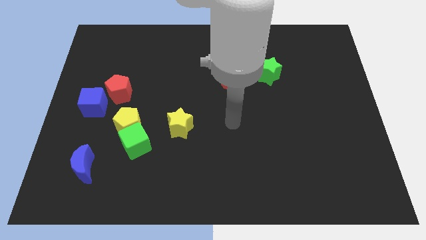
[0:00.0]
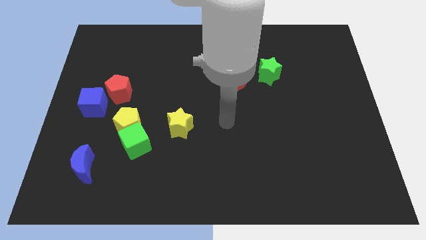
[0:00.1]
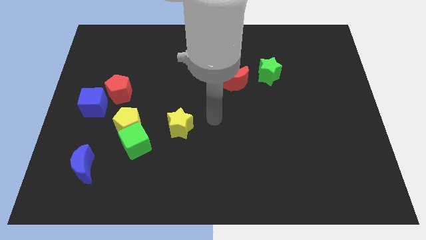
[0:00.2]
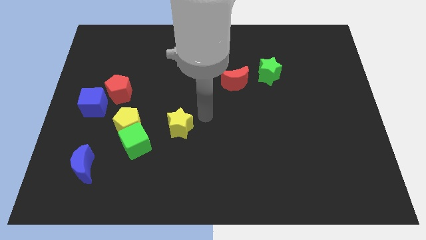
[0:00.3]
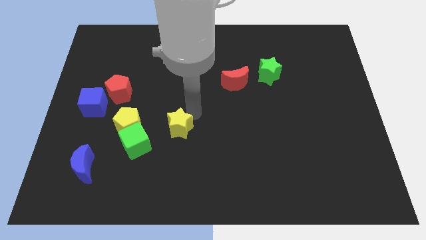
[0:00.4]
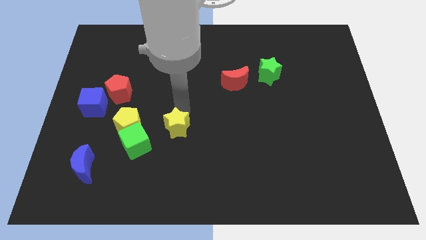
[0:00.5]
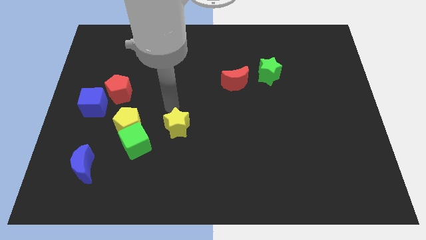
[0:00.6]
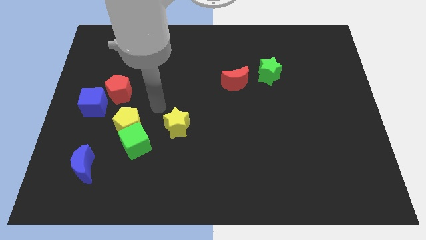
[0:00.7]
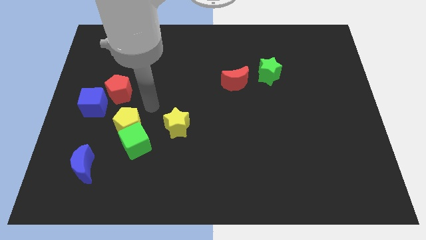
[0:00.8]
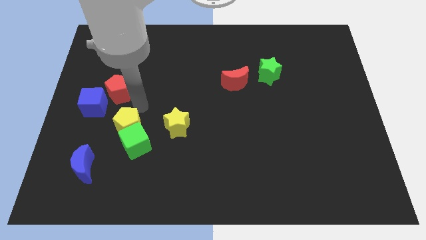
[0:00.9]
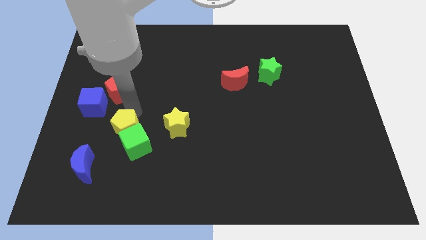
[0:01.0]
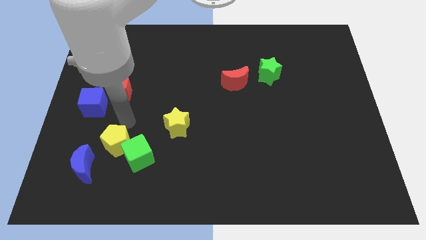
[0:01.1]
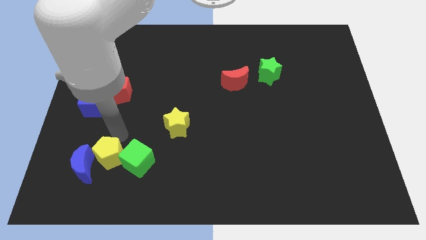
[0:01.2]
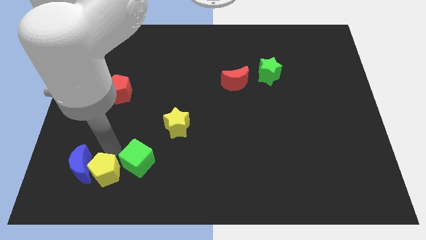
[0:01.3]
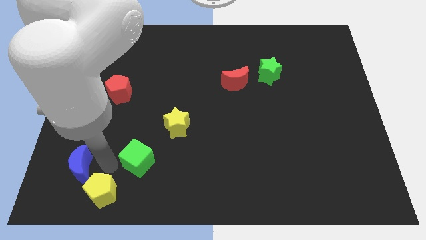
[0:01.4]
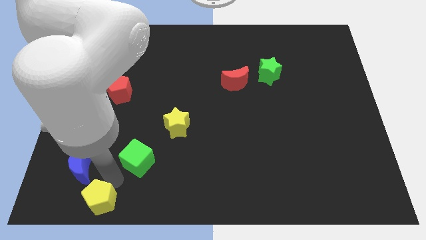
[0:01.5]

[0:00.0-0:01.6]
separate the green cube from the yellow pentagon

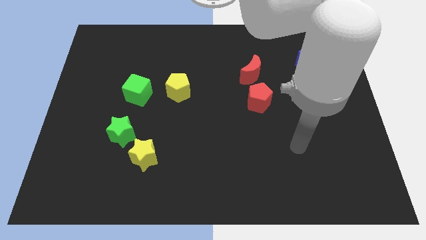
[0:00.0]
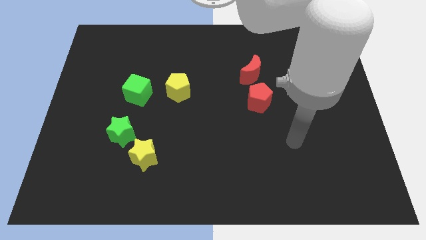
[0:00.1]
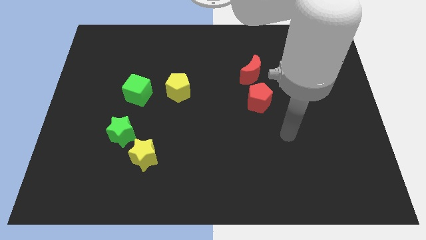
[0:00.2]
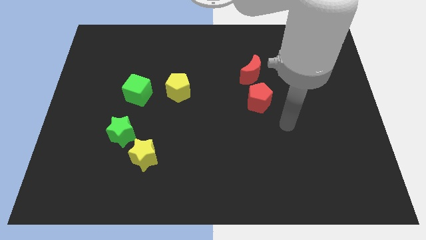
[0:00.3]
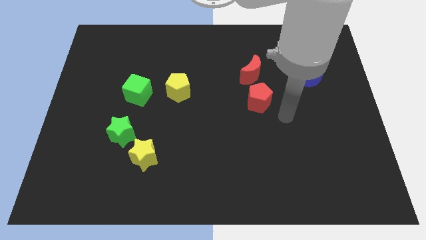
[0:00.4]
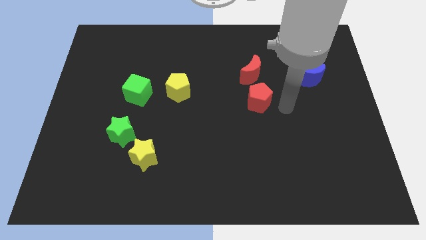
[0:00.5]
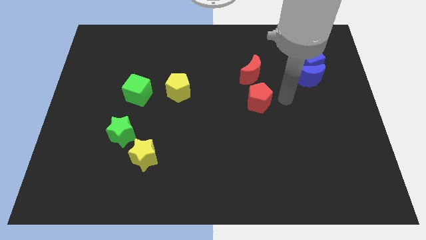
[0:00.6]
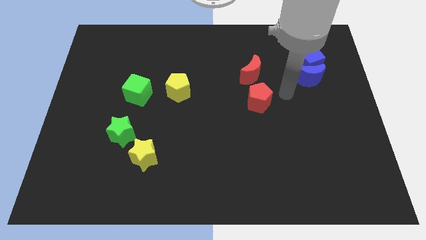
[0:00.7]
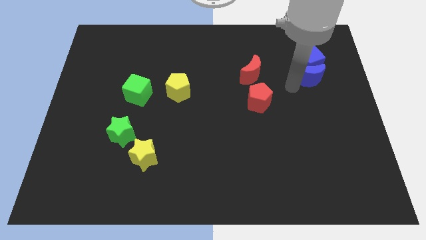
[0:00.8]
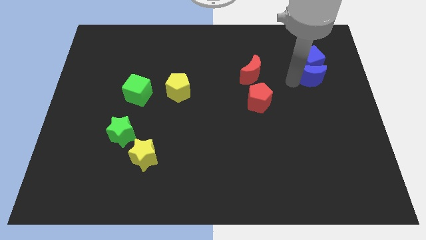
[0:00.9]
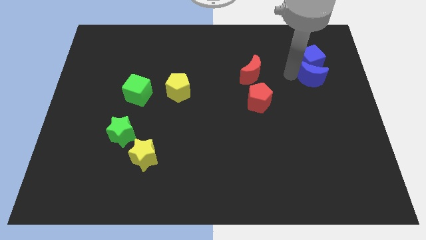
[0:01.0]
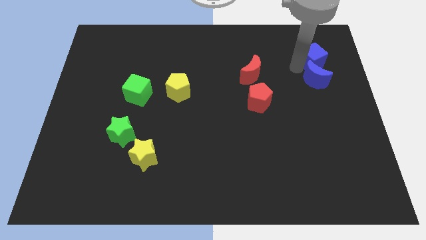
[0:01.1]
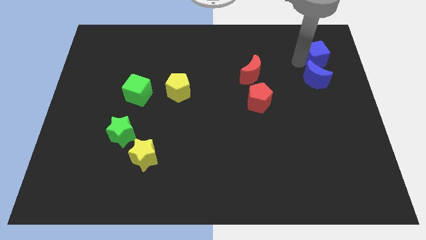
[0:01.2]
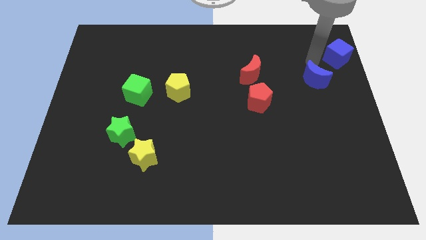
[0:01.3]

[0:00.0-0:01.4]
move the blue moon away from the blue cube

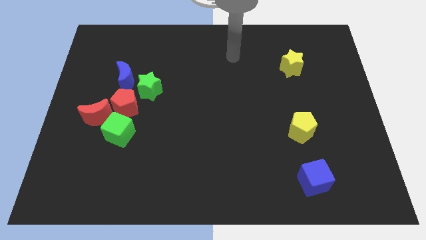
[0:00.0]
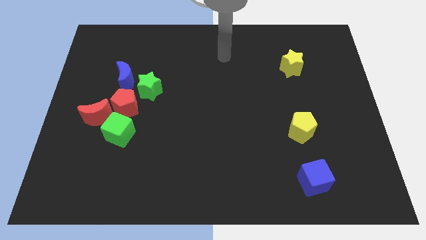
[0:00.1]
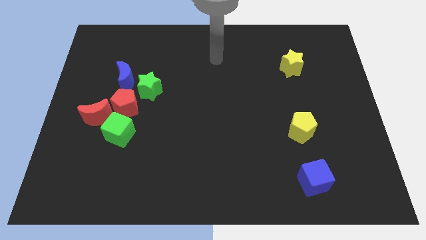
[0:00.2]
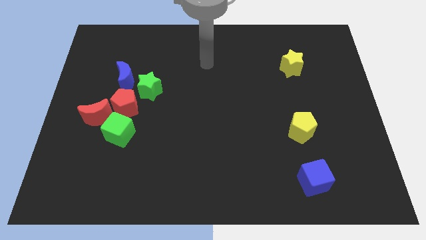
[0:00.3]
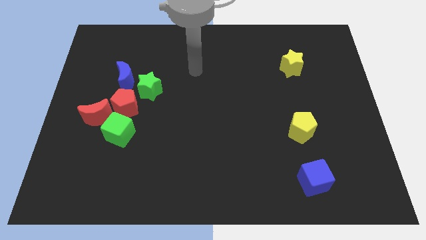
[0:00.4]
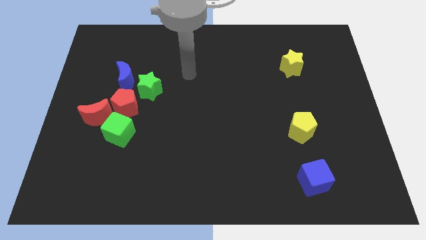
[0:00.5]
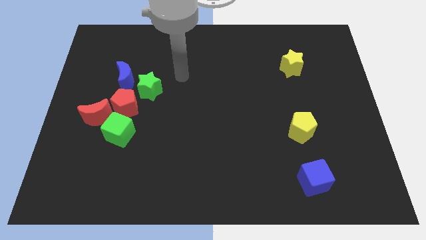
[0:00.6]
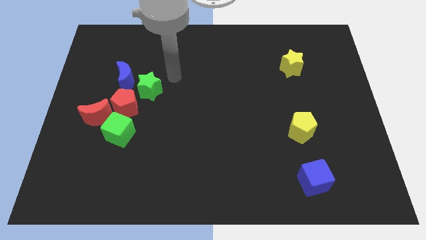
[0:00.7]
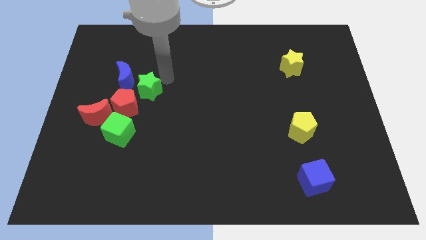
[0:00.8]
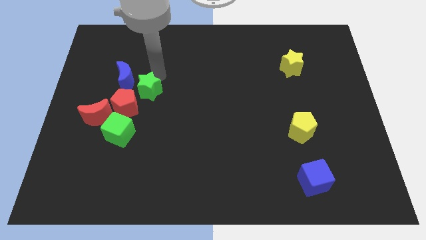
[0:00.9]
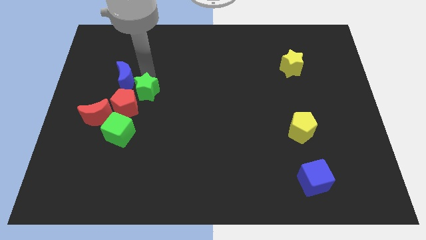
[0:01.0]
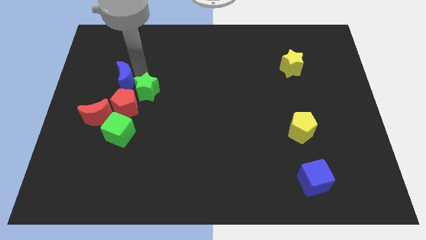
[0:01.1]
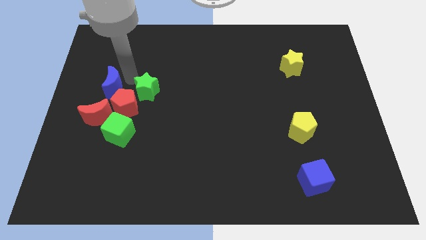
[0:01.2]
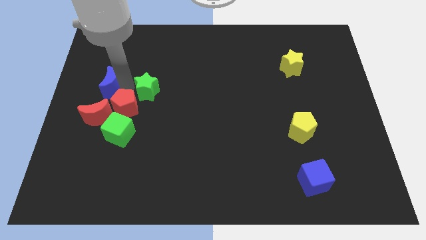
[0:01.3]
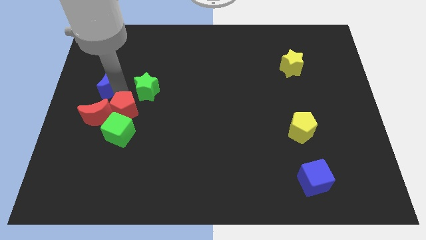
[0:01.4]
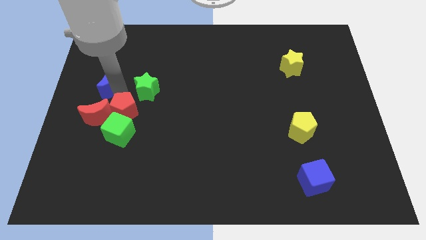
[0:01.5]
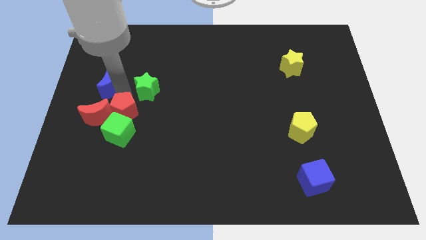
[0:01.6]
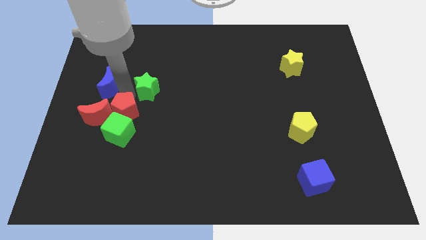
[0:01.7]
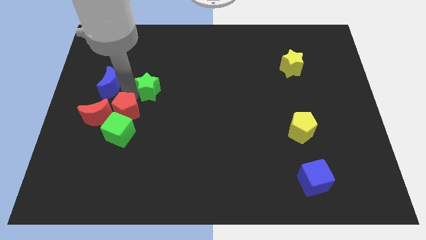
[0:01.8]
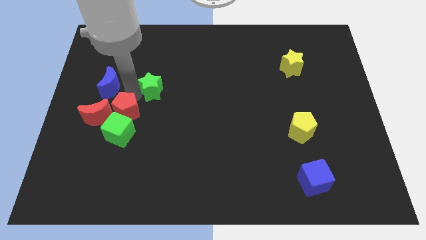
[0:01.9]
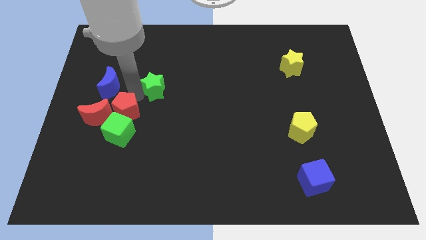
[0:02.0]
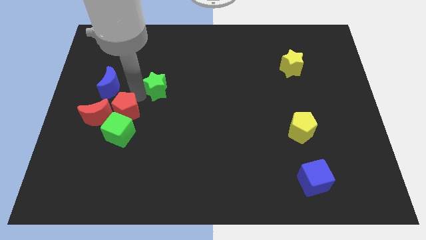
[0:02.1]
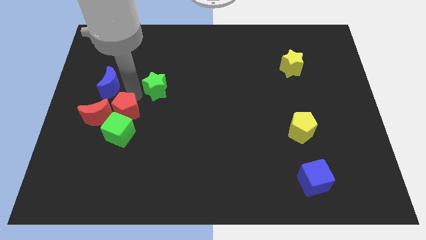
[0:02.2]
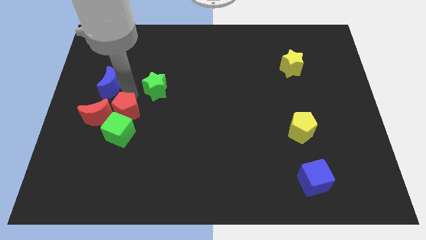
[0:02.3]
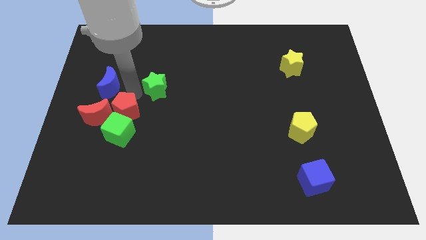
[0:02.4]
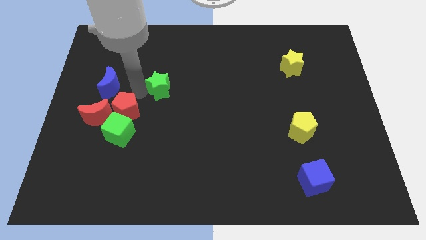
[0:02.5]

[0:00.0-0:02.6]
move the green star away from the blue moon and red pentagon

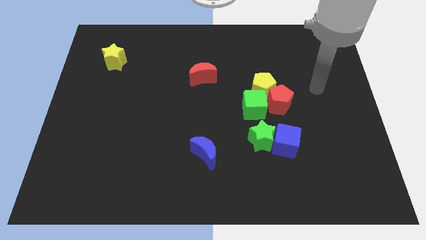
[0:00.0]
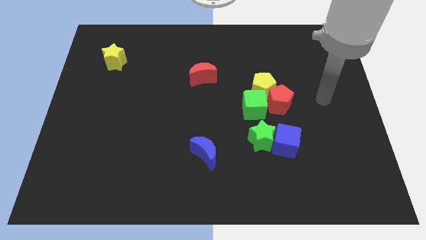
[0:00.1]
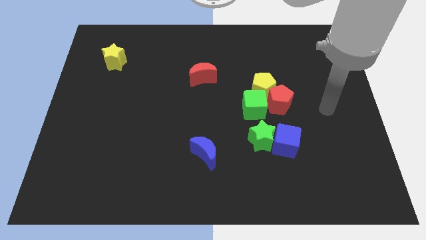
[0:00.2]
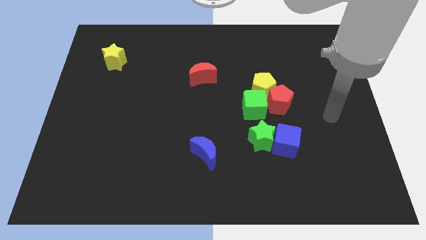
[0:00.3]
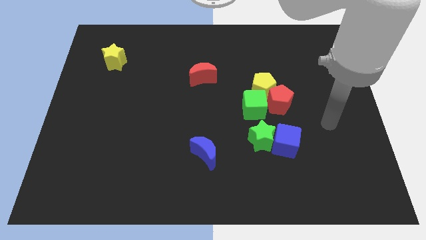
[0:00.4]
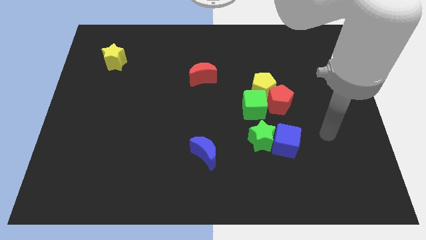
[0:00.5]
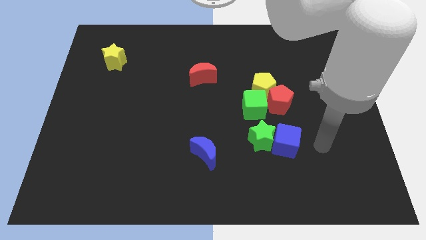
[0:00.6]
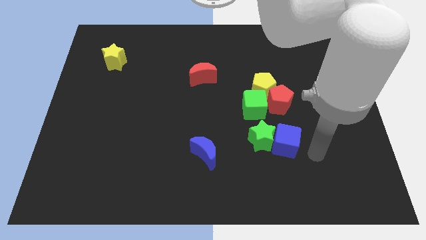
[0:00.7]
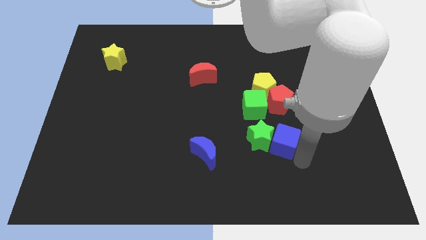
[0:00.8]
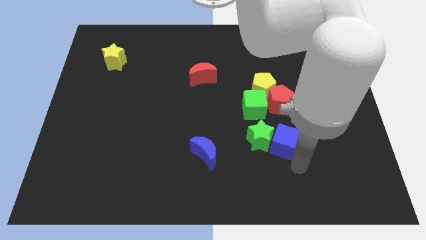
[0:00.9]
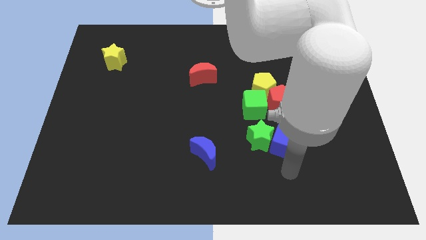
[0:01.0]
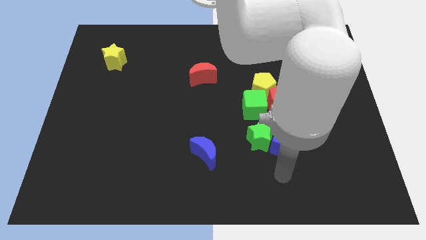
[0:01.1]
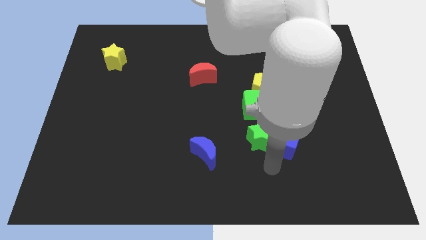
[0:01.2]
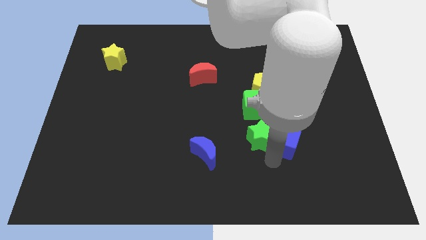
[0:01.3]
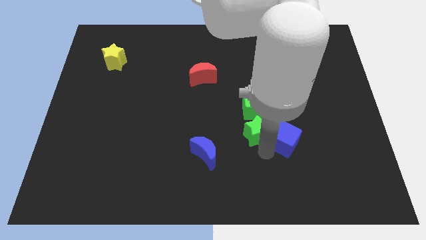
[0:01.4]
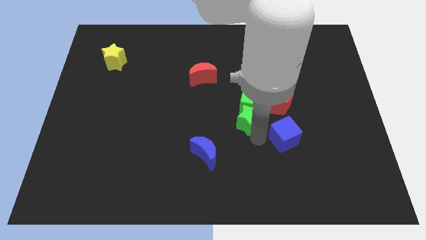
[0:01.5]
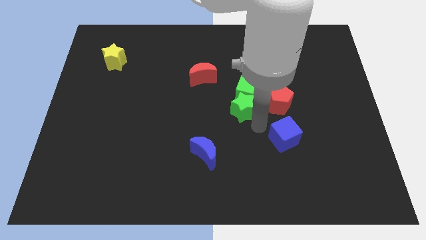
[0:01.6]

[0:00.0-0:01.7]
move the blue cube away from the green star

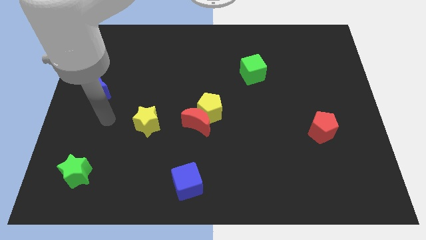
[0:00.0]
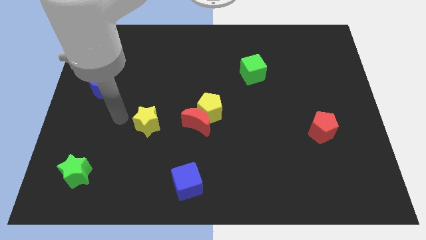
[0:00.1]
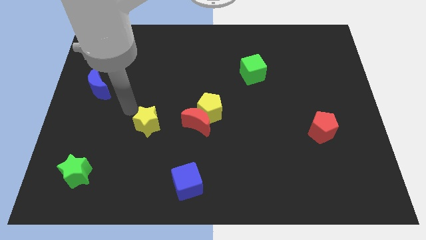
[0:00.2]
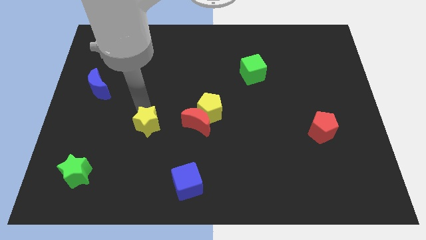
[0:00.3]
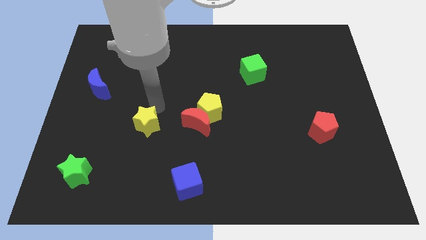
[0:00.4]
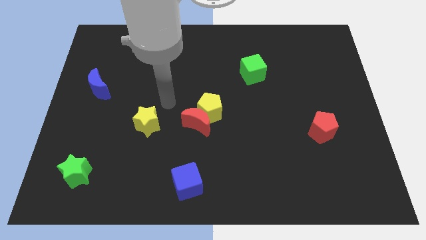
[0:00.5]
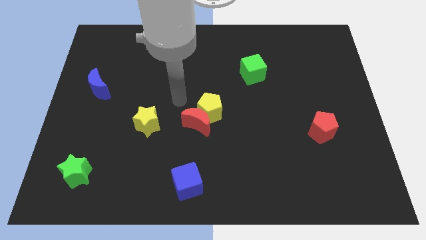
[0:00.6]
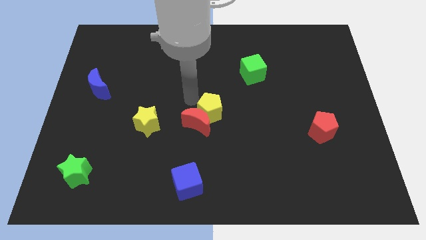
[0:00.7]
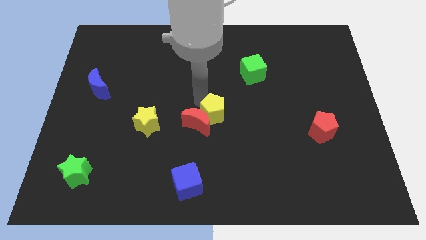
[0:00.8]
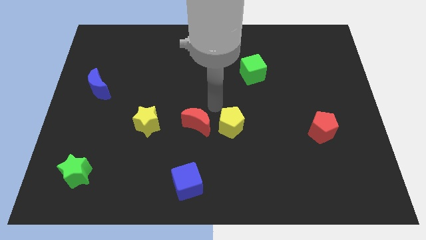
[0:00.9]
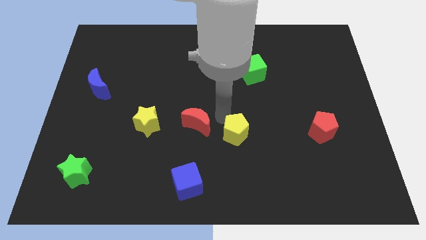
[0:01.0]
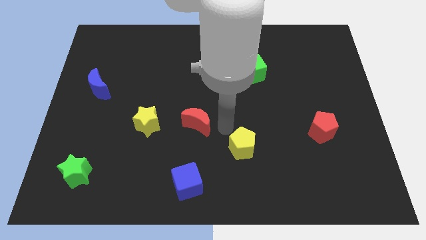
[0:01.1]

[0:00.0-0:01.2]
move the red moon away from the yellow pentagon

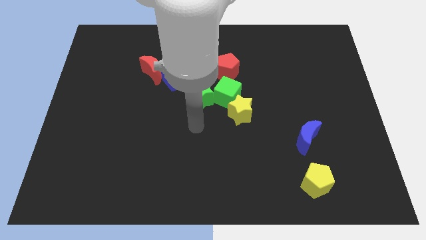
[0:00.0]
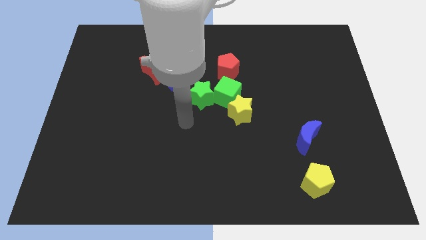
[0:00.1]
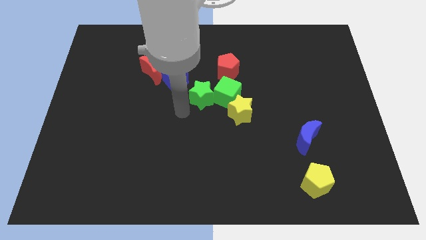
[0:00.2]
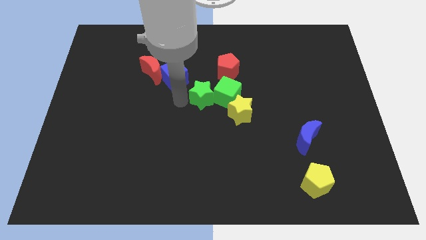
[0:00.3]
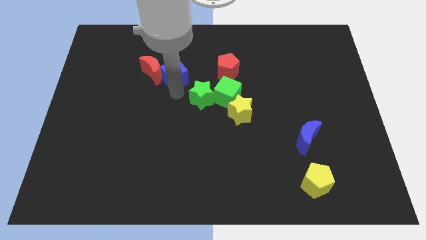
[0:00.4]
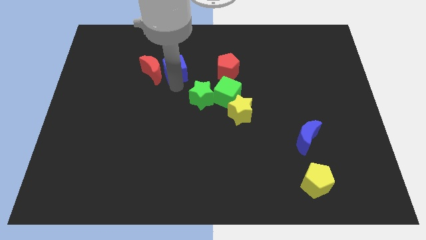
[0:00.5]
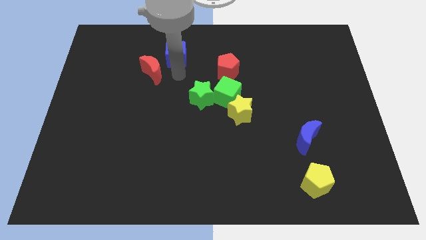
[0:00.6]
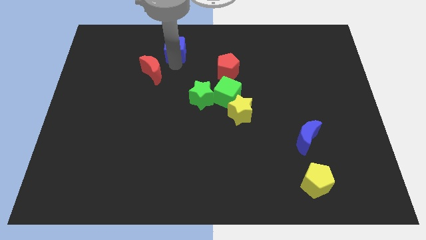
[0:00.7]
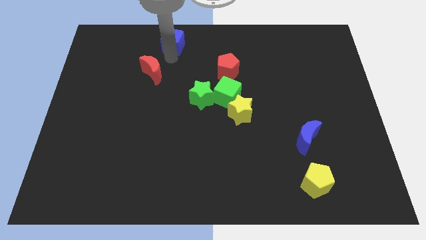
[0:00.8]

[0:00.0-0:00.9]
separate the red moon from the blue cube
